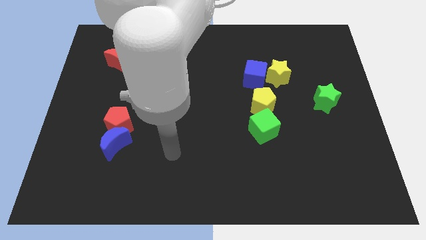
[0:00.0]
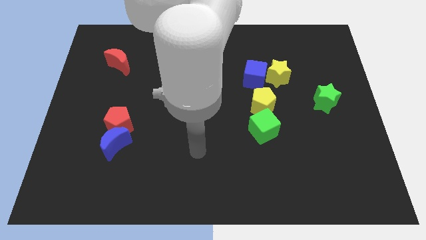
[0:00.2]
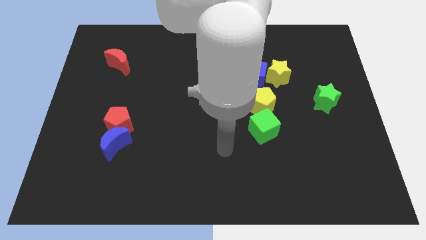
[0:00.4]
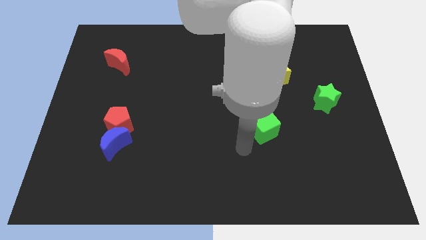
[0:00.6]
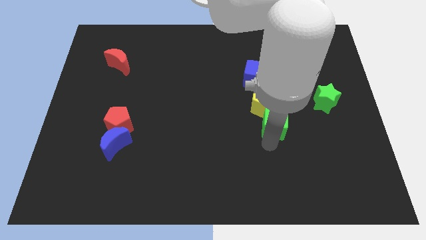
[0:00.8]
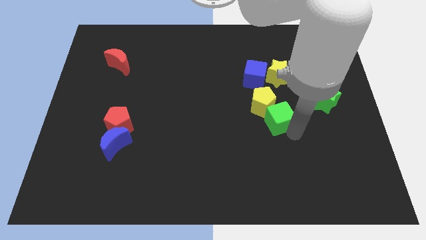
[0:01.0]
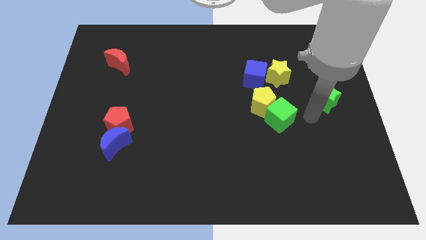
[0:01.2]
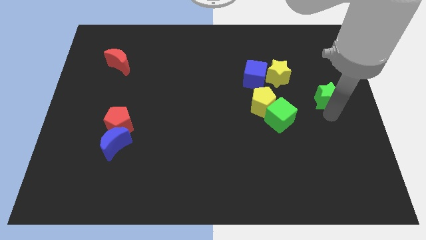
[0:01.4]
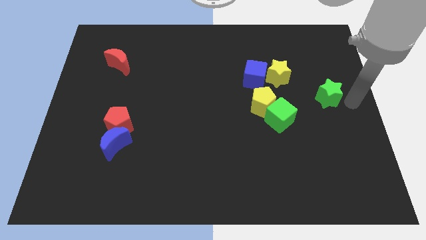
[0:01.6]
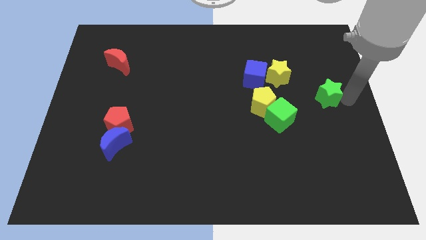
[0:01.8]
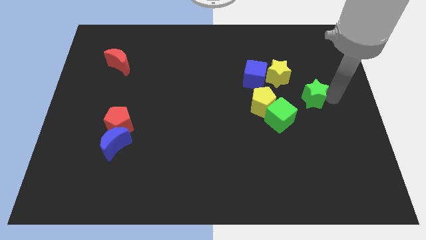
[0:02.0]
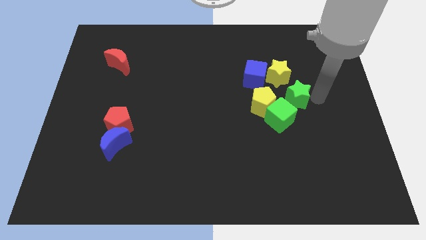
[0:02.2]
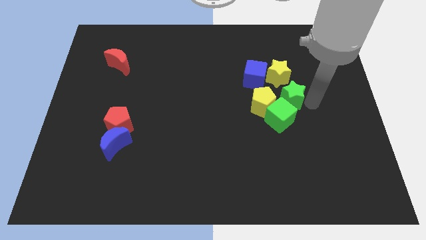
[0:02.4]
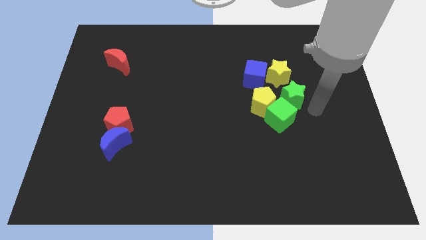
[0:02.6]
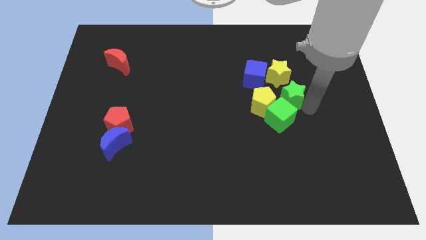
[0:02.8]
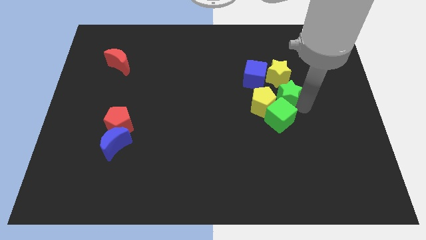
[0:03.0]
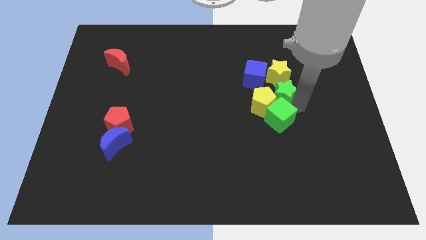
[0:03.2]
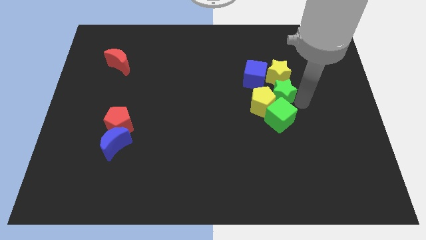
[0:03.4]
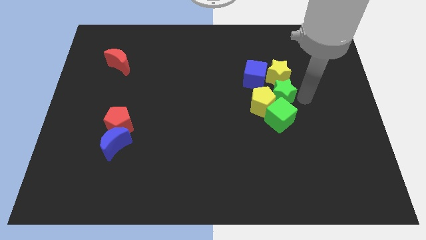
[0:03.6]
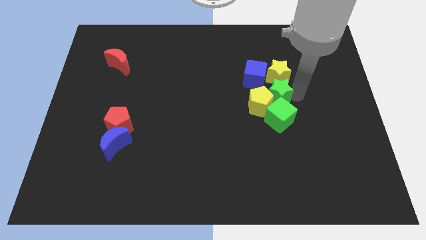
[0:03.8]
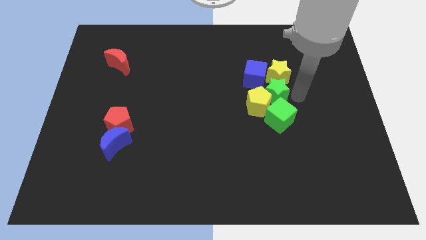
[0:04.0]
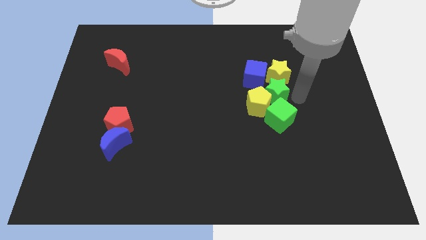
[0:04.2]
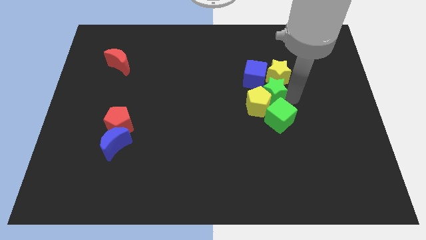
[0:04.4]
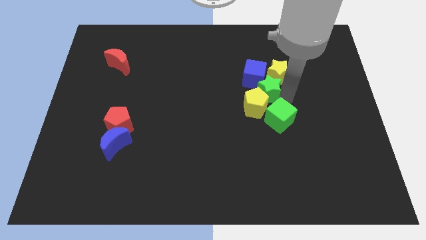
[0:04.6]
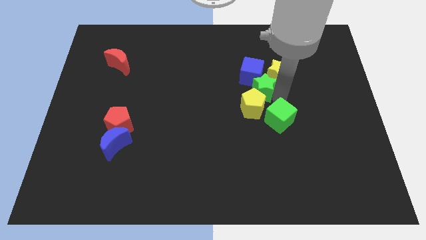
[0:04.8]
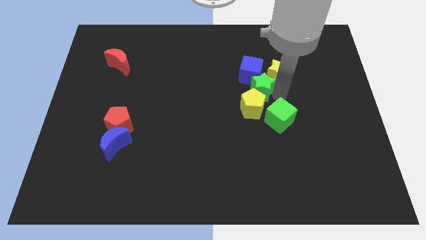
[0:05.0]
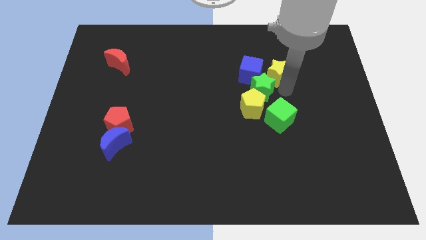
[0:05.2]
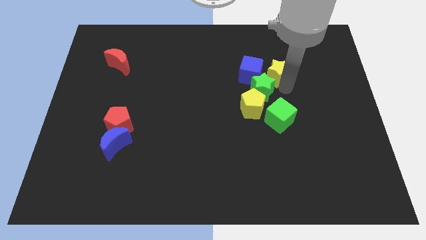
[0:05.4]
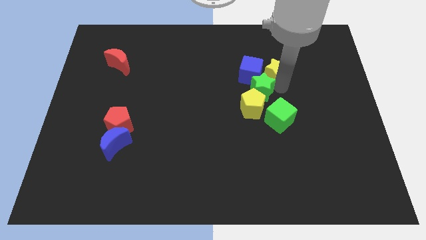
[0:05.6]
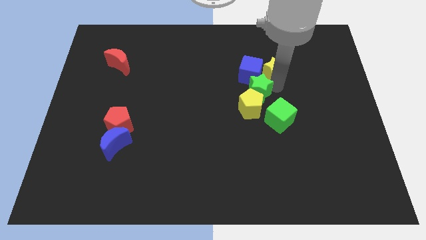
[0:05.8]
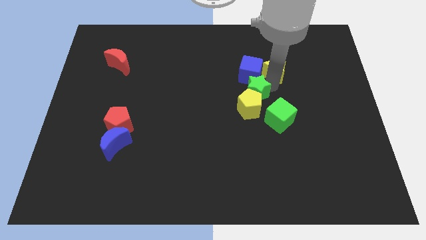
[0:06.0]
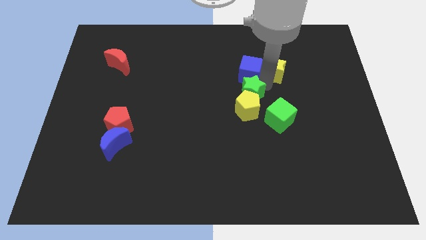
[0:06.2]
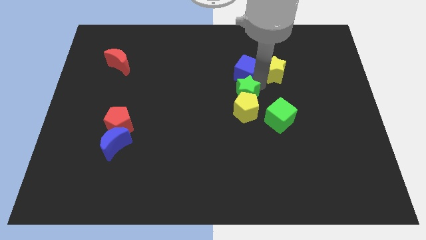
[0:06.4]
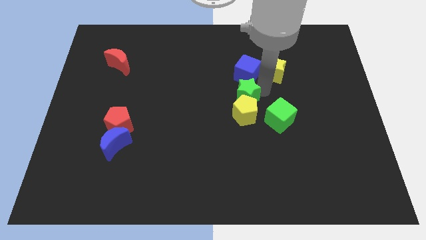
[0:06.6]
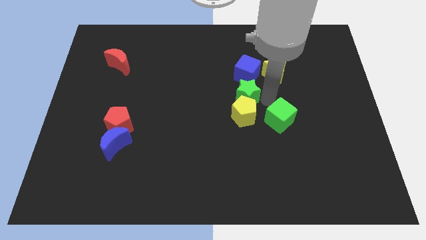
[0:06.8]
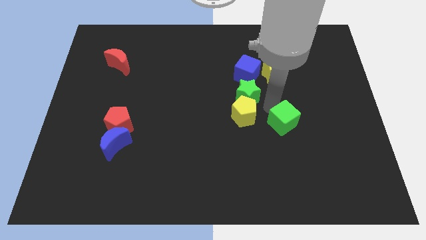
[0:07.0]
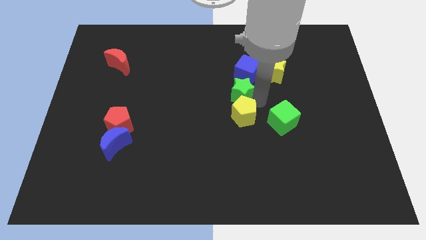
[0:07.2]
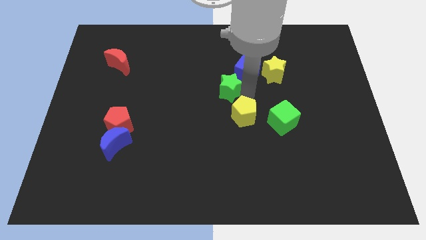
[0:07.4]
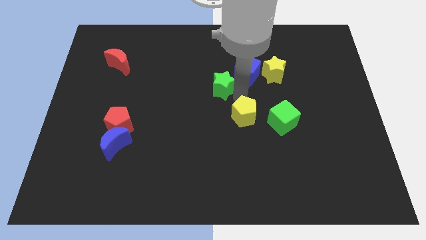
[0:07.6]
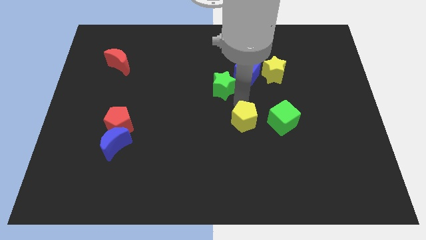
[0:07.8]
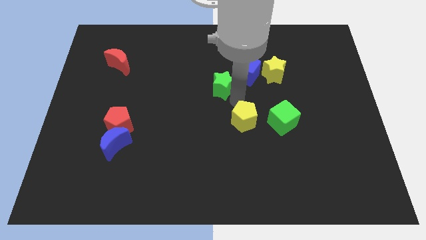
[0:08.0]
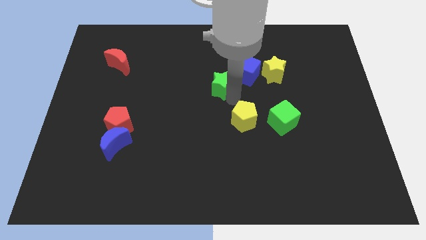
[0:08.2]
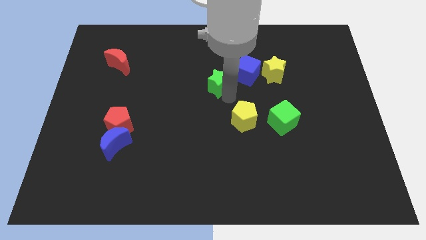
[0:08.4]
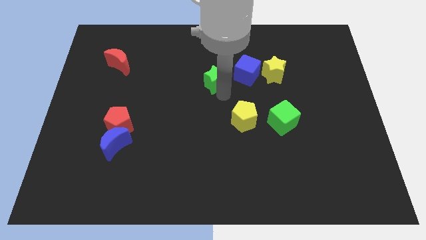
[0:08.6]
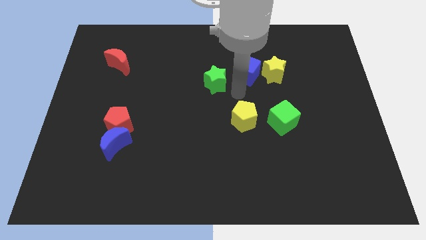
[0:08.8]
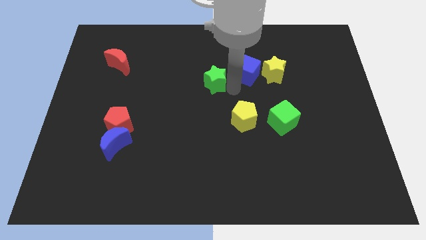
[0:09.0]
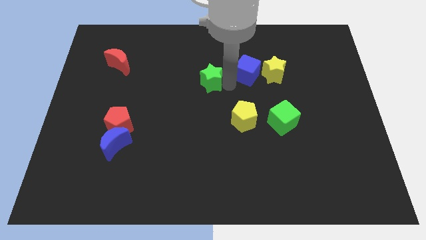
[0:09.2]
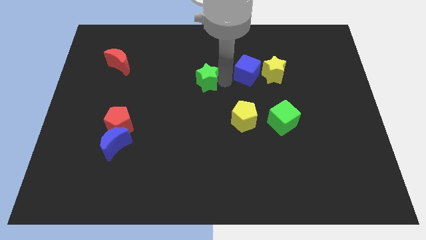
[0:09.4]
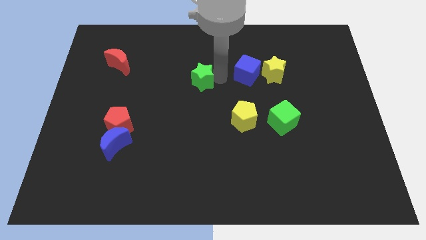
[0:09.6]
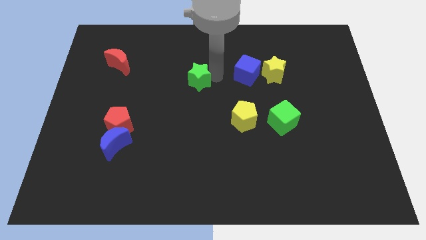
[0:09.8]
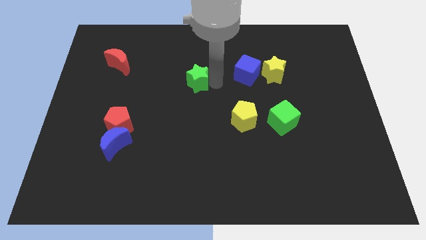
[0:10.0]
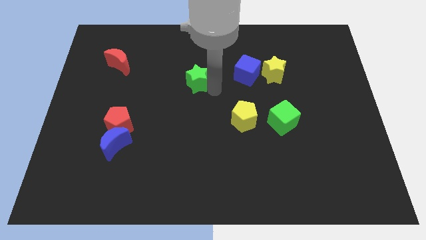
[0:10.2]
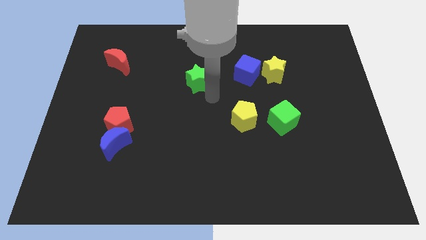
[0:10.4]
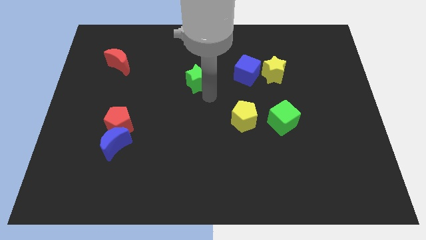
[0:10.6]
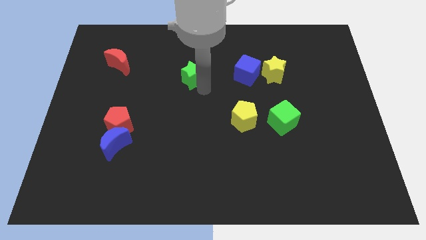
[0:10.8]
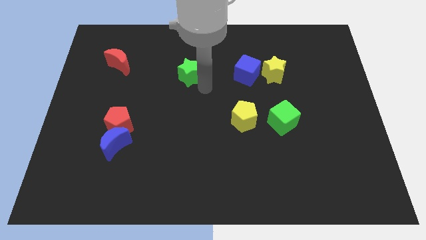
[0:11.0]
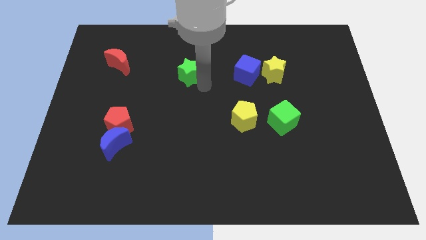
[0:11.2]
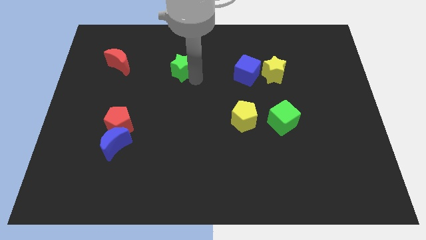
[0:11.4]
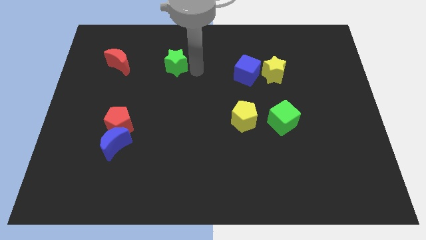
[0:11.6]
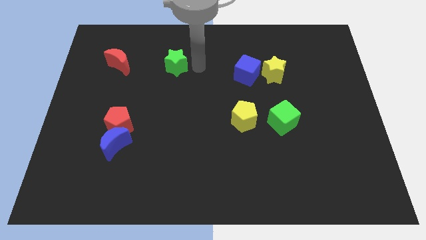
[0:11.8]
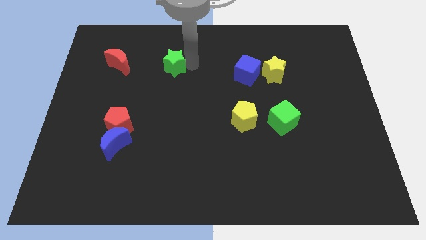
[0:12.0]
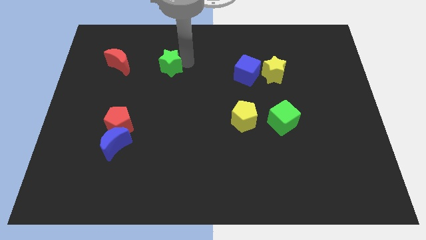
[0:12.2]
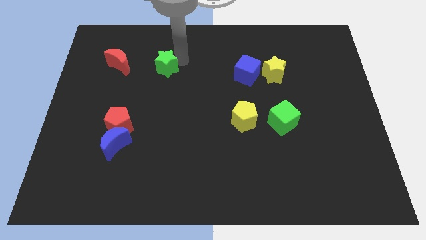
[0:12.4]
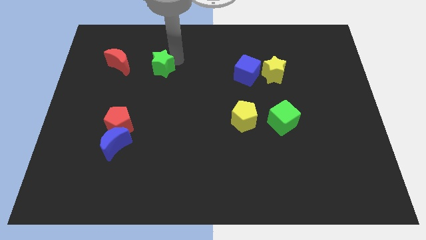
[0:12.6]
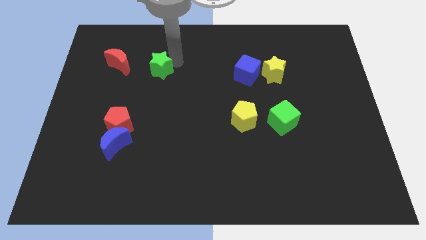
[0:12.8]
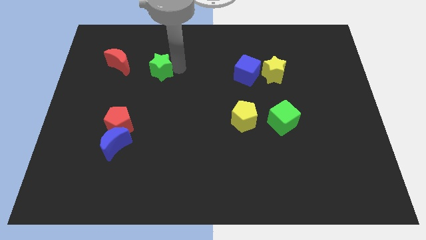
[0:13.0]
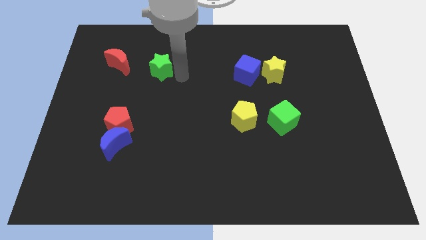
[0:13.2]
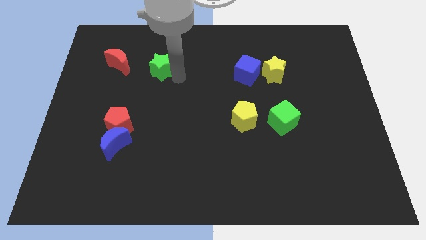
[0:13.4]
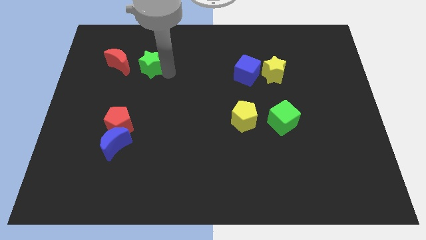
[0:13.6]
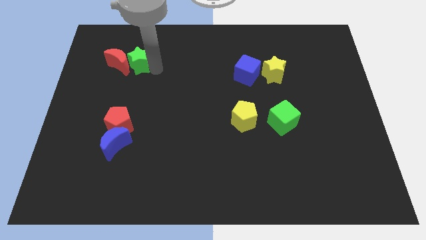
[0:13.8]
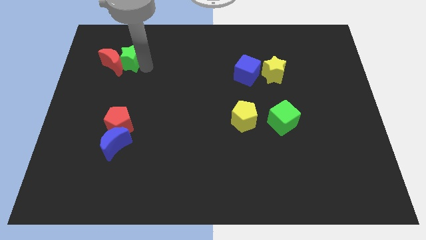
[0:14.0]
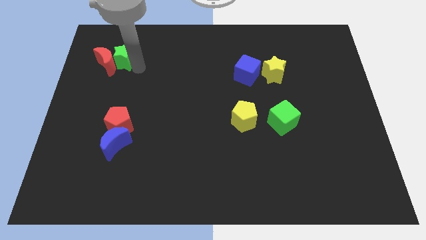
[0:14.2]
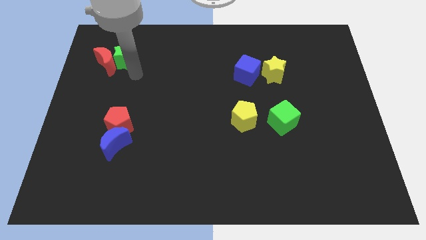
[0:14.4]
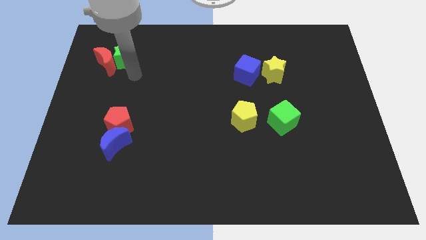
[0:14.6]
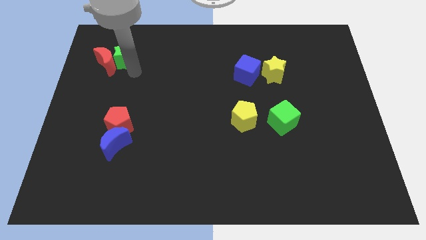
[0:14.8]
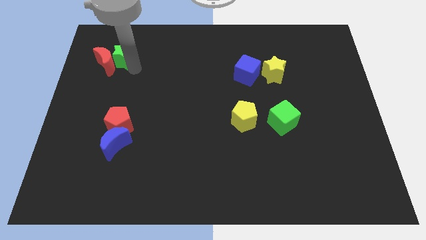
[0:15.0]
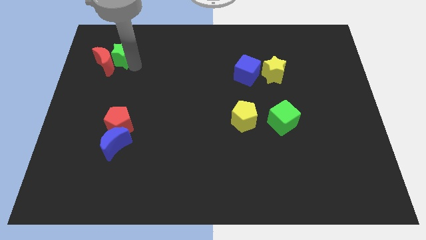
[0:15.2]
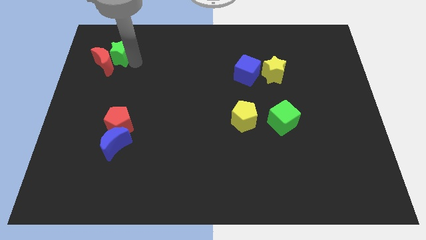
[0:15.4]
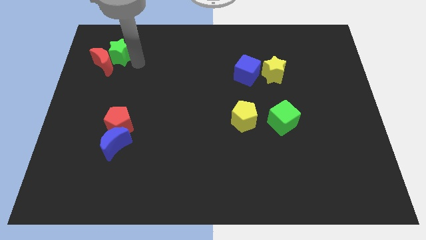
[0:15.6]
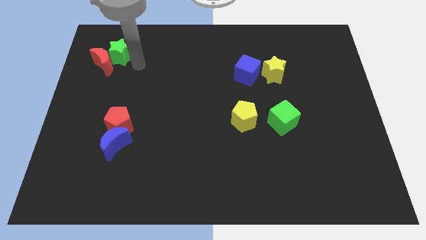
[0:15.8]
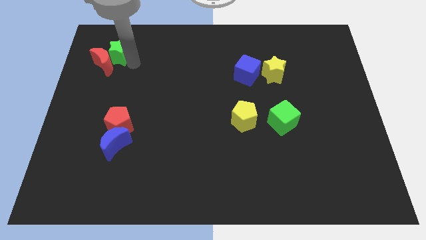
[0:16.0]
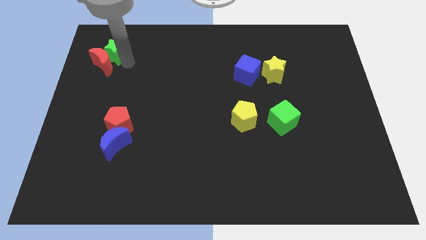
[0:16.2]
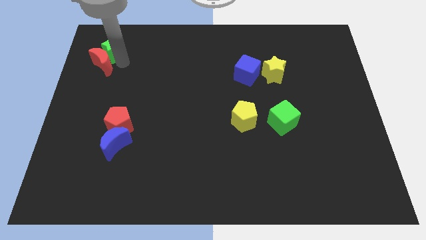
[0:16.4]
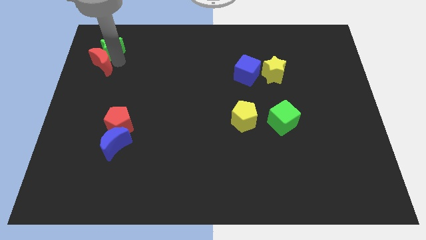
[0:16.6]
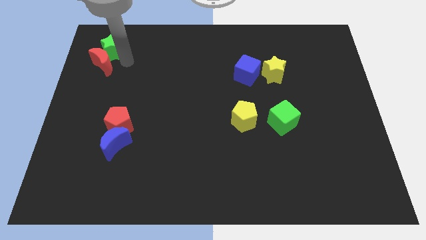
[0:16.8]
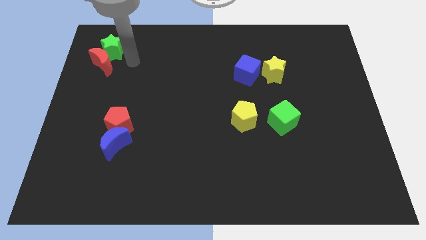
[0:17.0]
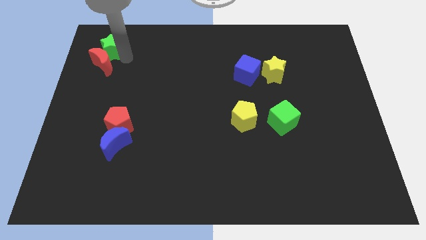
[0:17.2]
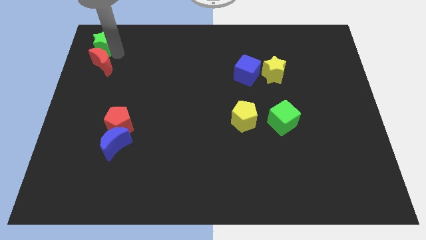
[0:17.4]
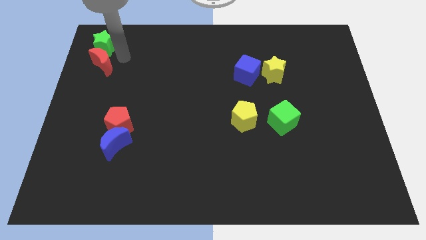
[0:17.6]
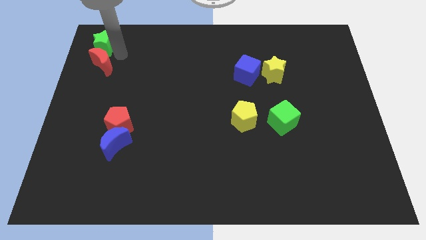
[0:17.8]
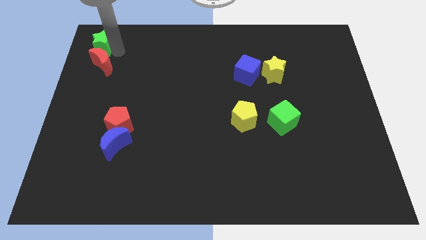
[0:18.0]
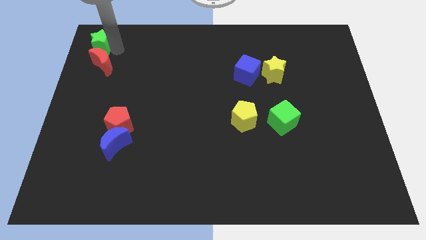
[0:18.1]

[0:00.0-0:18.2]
move the green star to the top left
